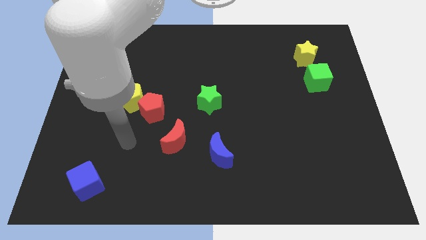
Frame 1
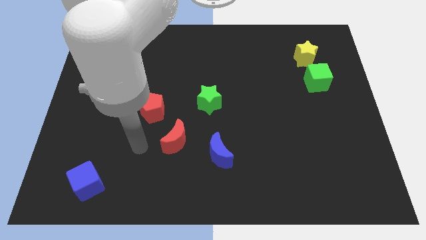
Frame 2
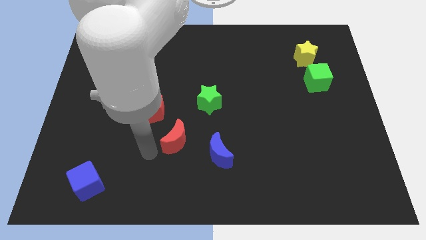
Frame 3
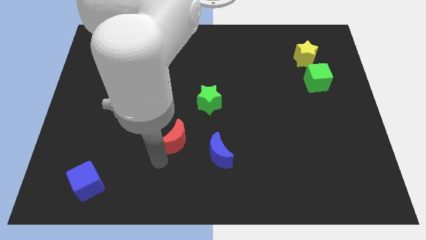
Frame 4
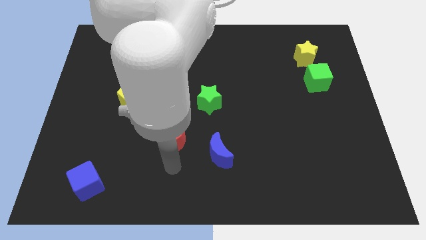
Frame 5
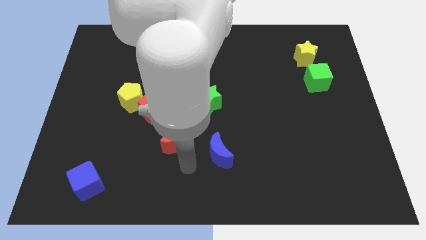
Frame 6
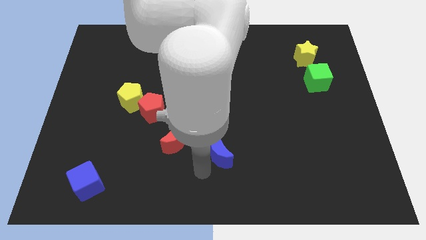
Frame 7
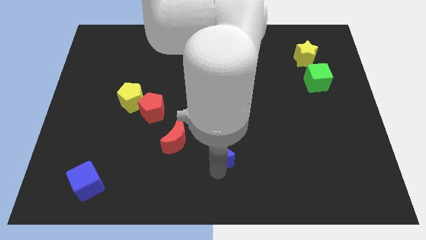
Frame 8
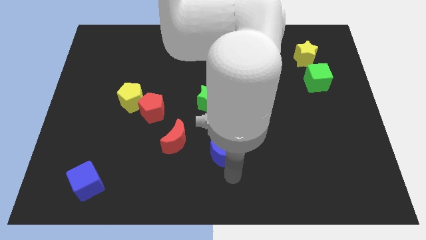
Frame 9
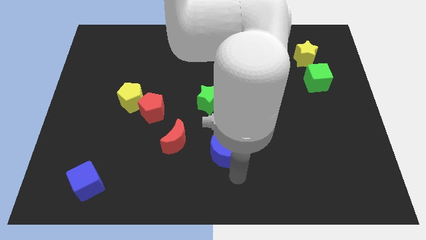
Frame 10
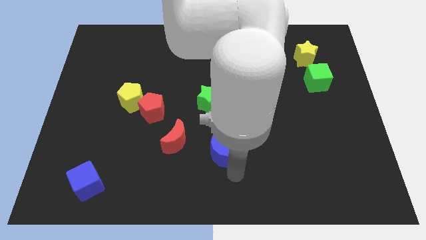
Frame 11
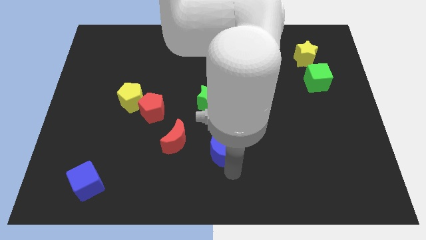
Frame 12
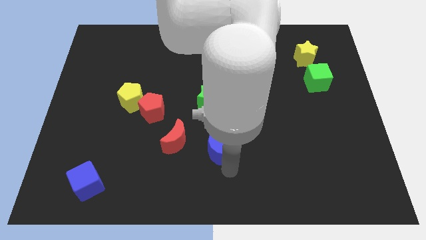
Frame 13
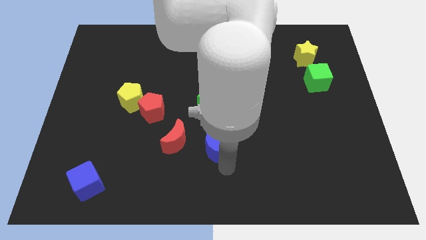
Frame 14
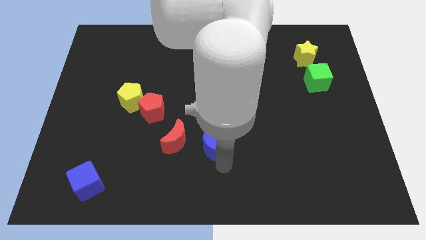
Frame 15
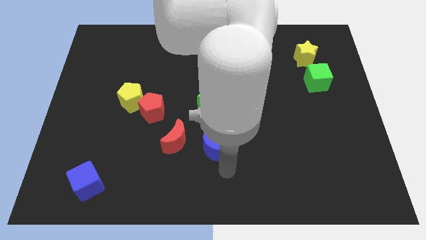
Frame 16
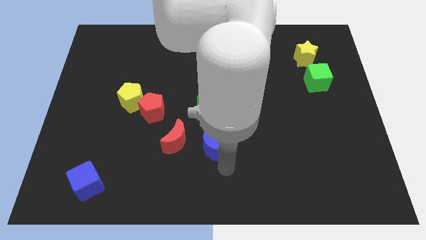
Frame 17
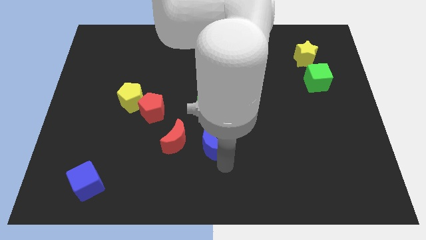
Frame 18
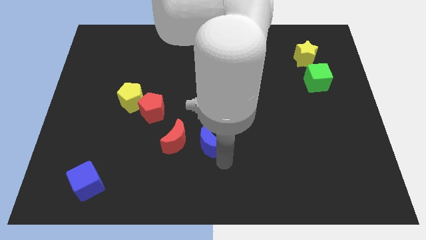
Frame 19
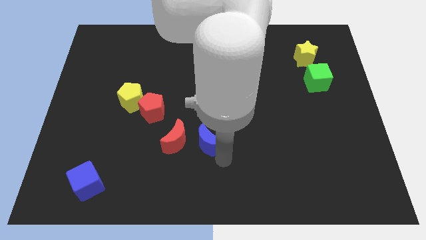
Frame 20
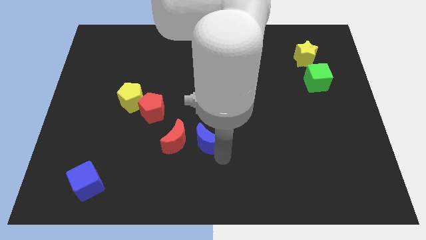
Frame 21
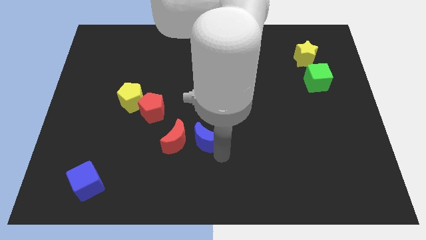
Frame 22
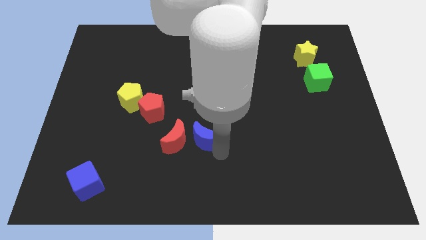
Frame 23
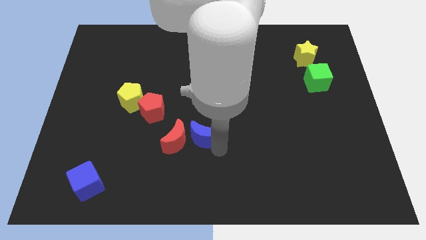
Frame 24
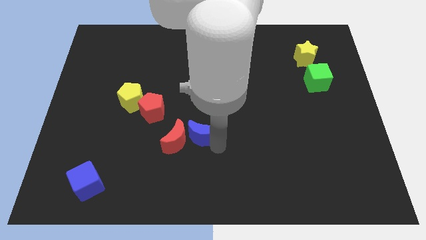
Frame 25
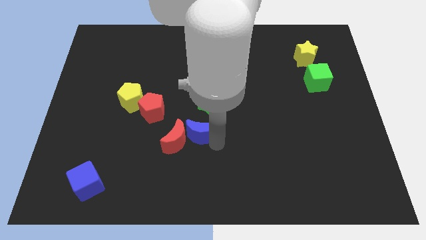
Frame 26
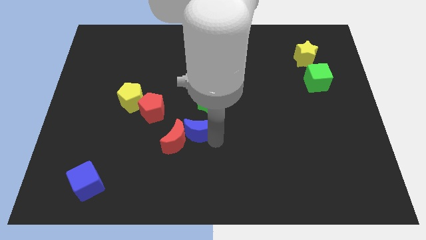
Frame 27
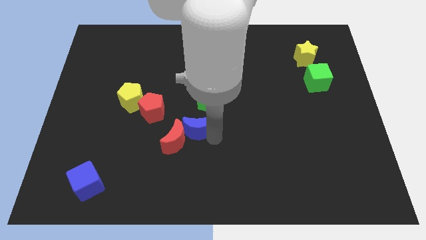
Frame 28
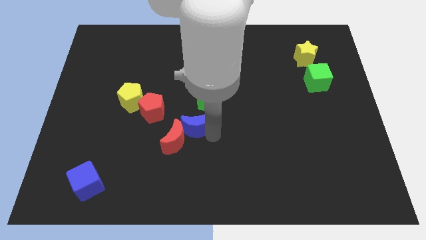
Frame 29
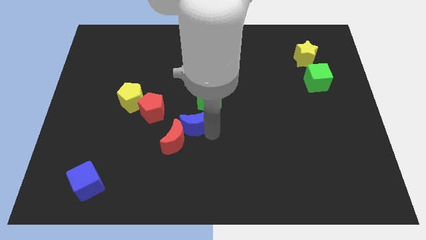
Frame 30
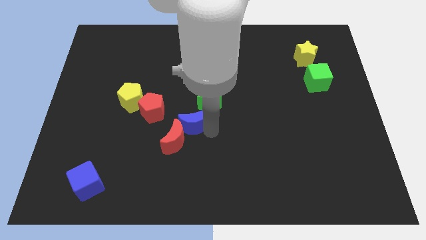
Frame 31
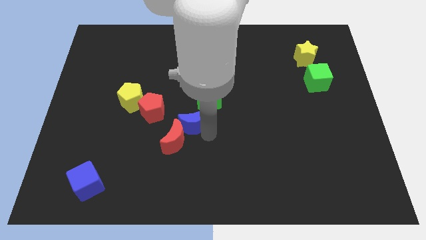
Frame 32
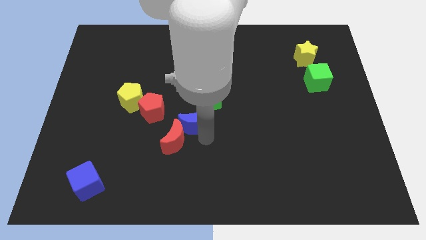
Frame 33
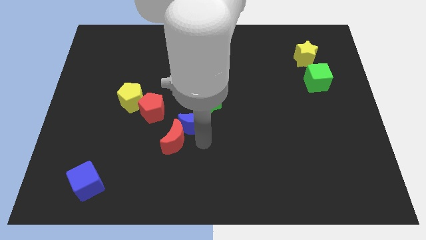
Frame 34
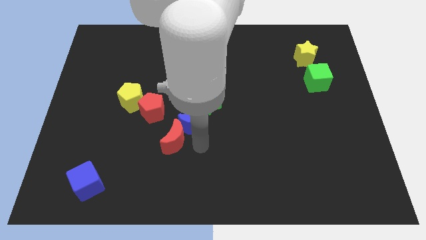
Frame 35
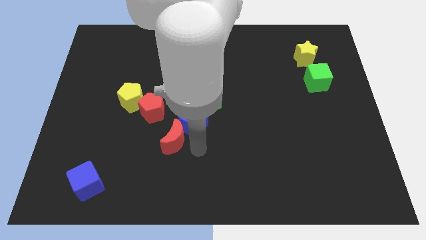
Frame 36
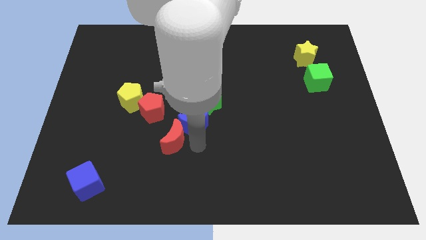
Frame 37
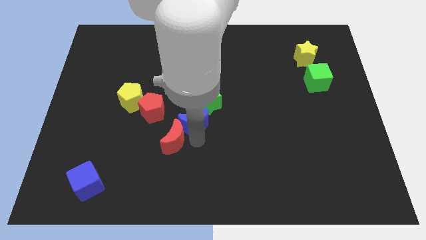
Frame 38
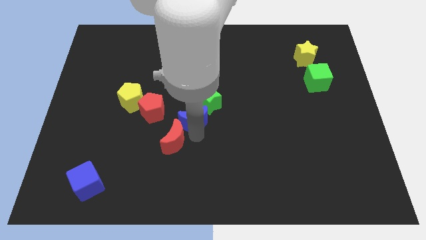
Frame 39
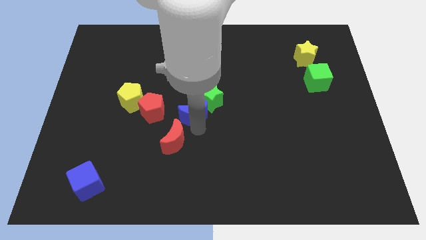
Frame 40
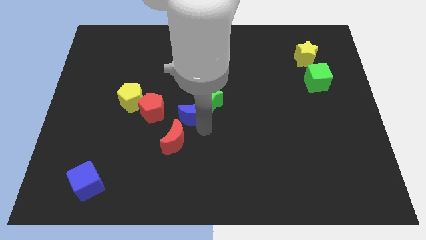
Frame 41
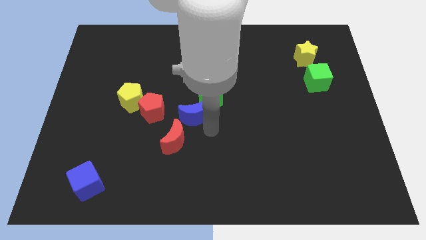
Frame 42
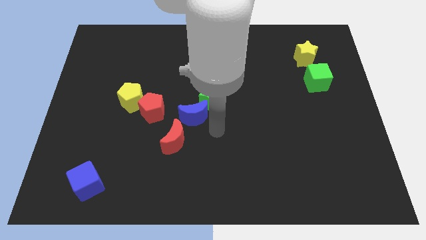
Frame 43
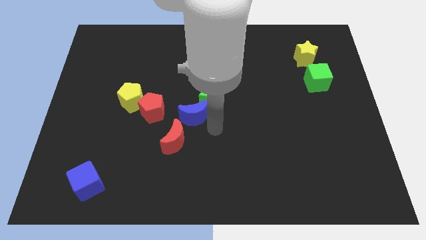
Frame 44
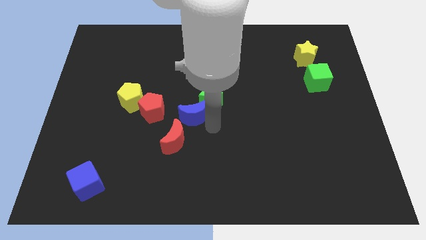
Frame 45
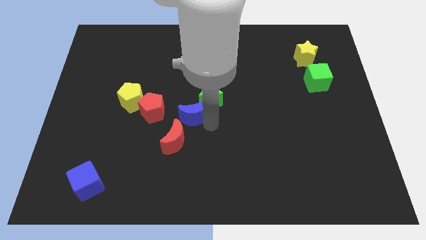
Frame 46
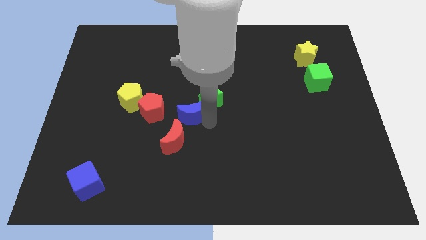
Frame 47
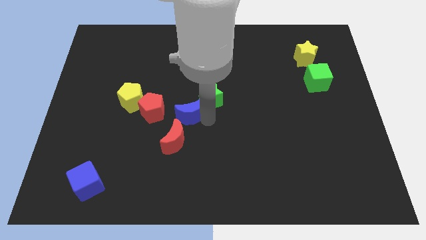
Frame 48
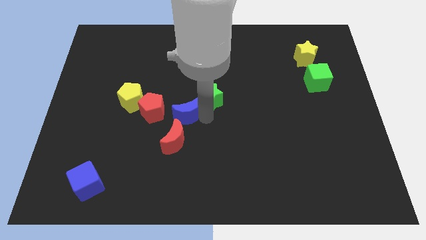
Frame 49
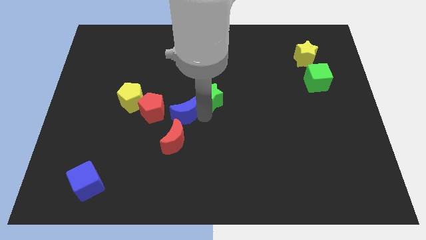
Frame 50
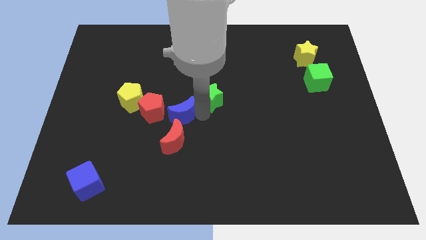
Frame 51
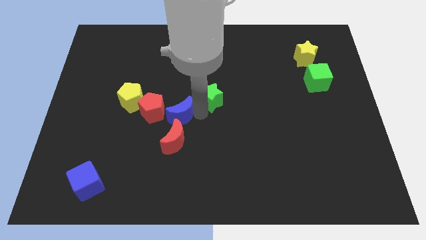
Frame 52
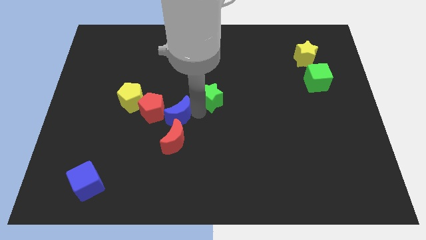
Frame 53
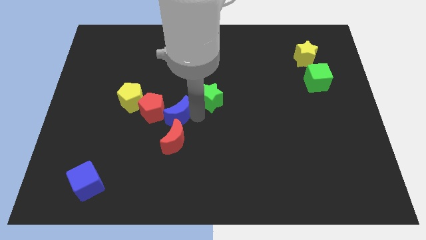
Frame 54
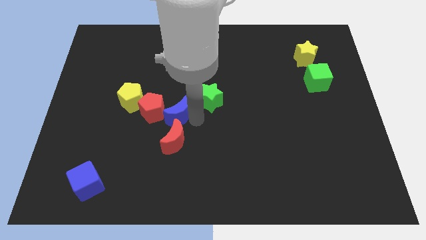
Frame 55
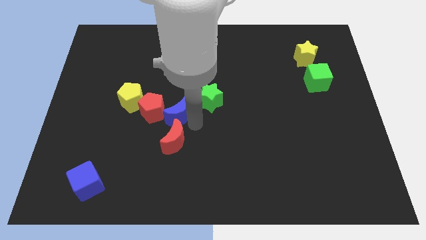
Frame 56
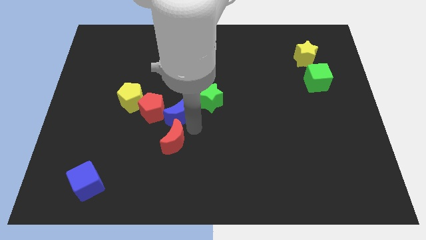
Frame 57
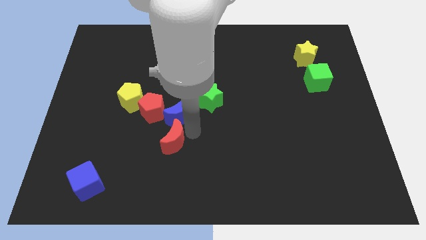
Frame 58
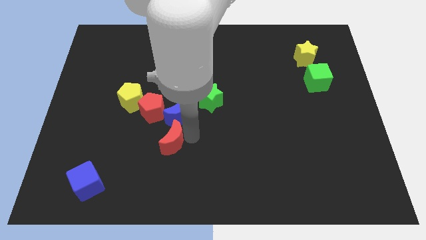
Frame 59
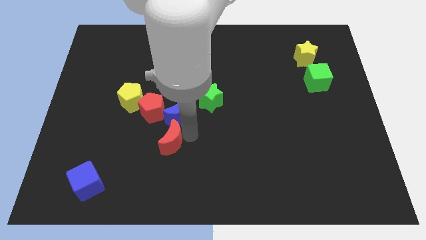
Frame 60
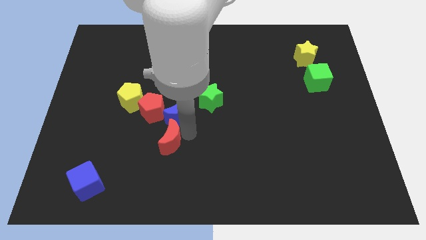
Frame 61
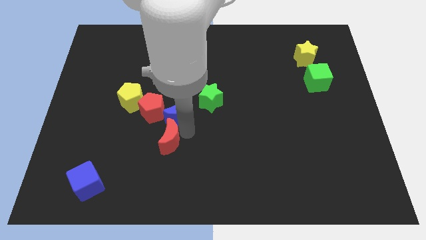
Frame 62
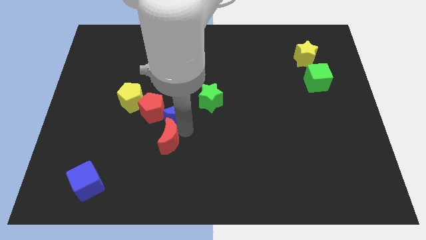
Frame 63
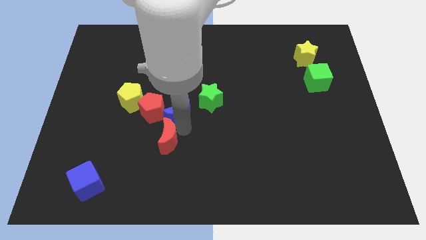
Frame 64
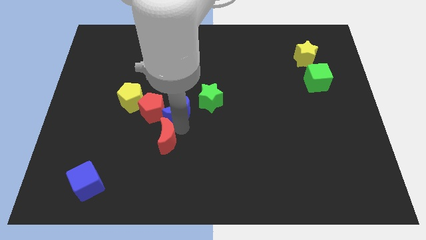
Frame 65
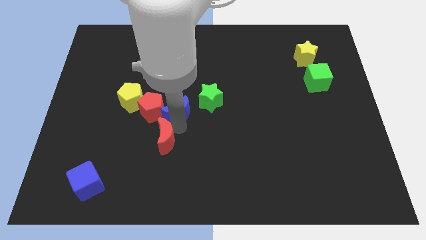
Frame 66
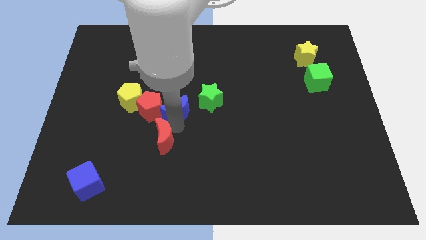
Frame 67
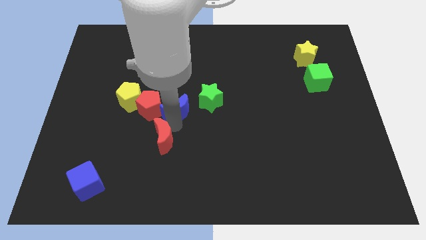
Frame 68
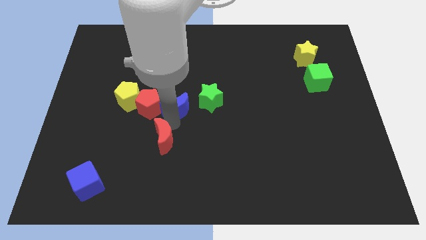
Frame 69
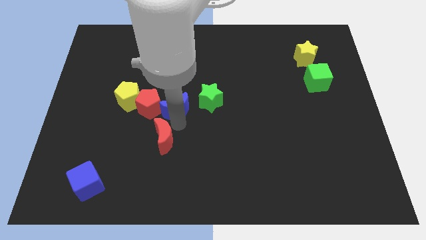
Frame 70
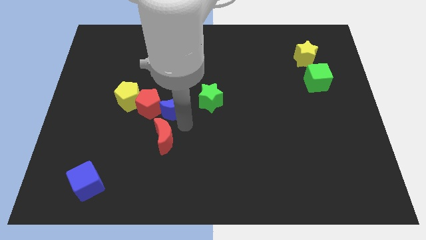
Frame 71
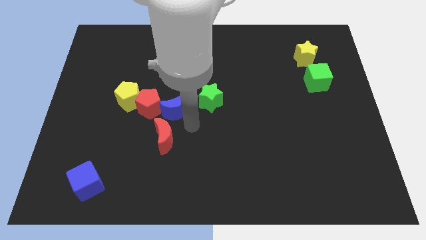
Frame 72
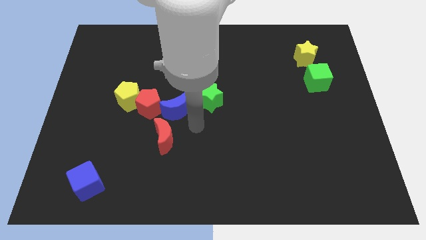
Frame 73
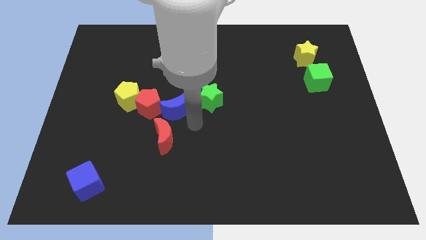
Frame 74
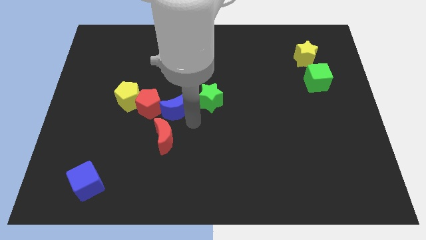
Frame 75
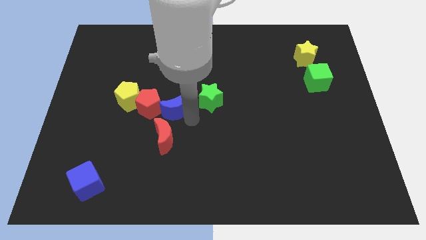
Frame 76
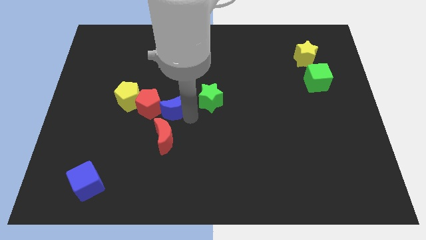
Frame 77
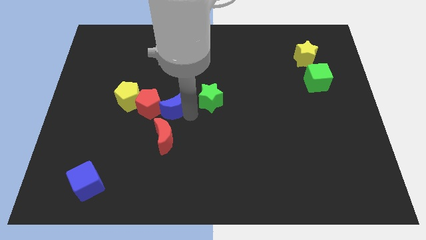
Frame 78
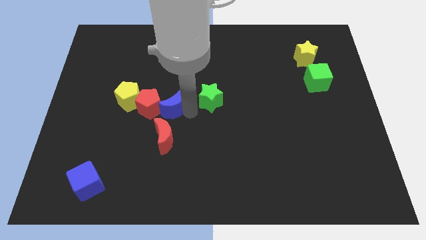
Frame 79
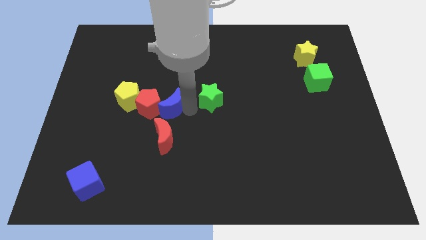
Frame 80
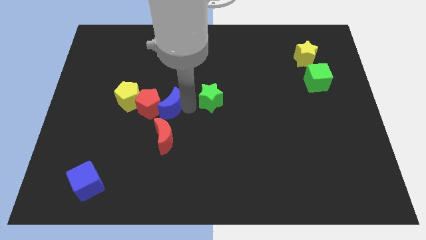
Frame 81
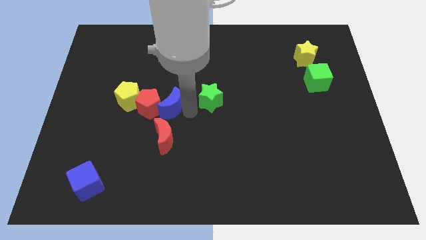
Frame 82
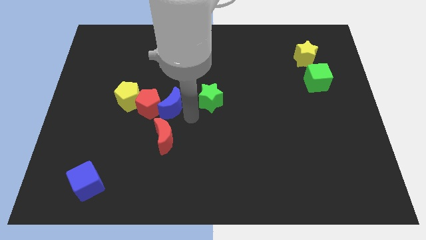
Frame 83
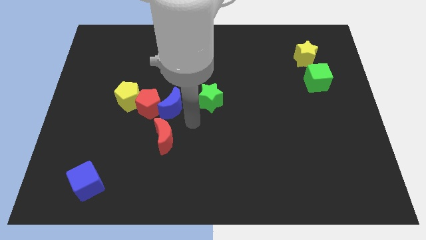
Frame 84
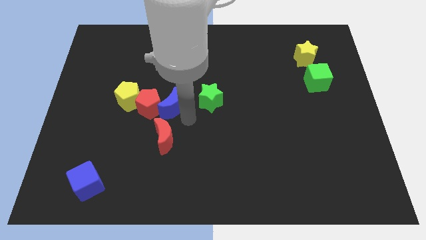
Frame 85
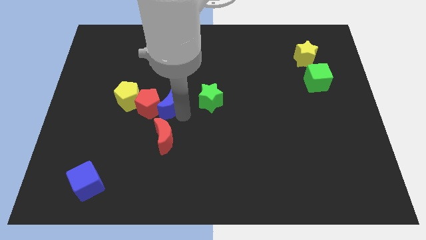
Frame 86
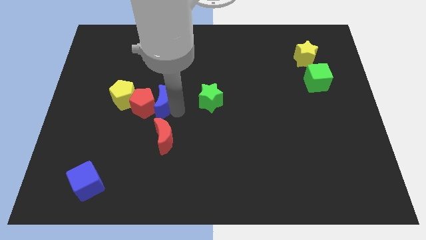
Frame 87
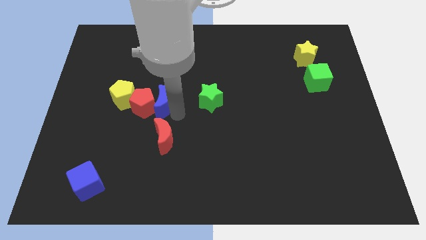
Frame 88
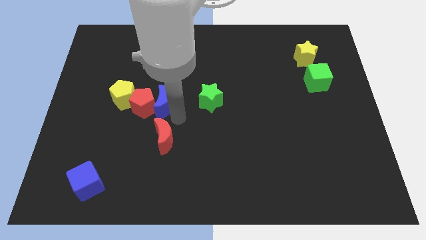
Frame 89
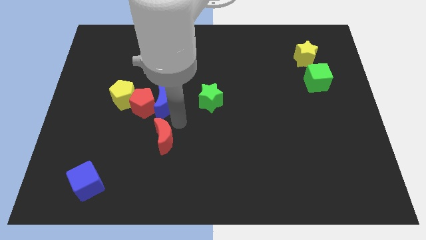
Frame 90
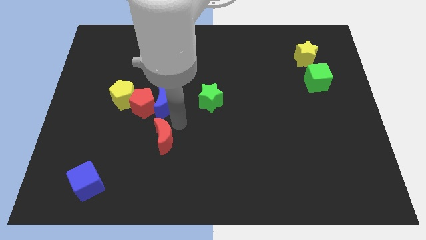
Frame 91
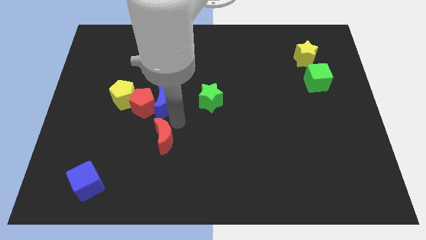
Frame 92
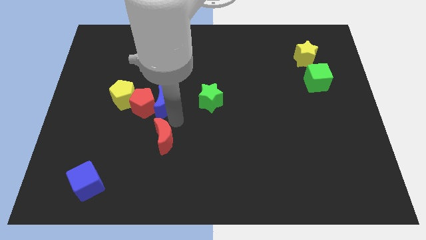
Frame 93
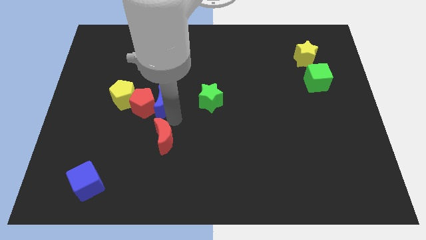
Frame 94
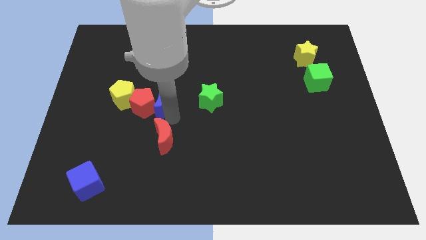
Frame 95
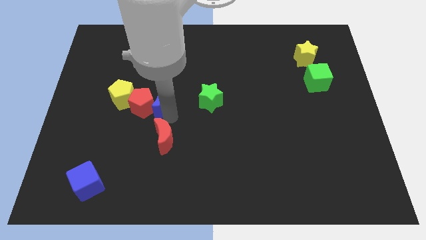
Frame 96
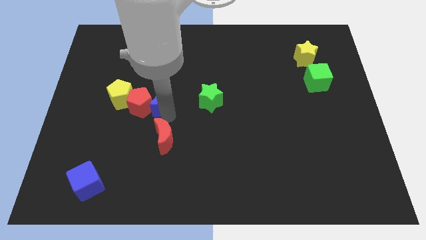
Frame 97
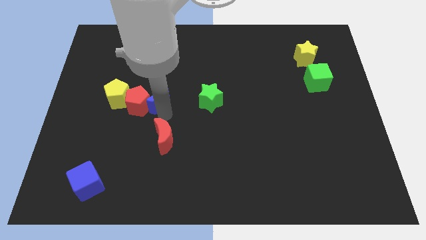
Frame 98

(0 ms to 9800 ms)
slide the blue moon upwards and to the left diagonally
